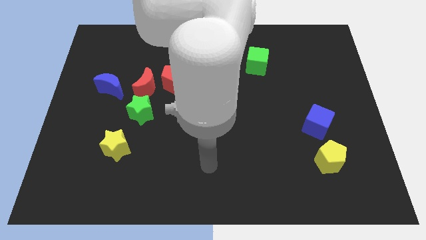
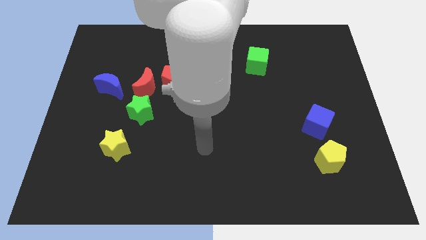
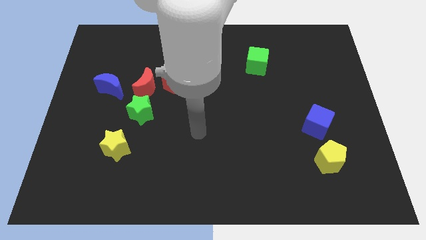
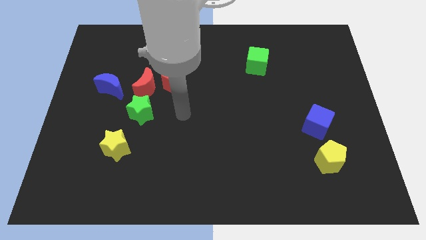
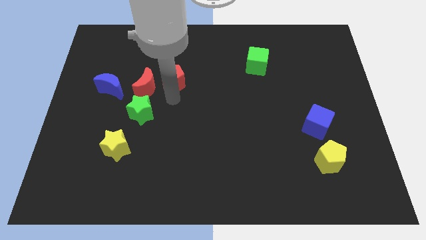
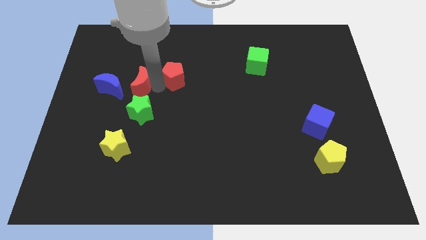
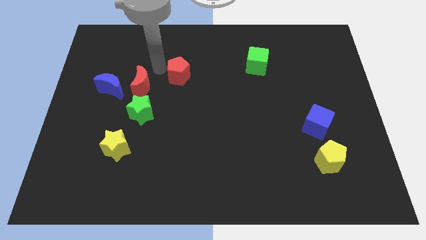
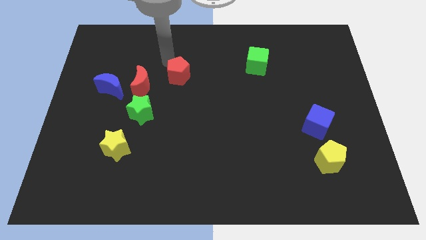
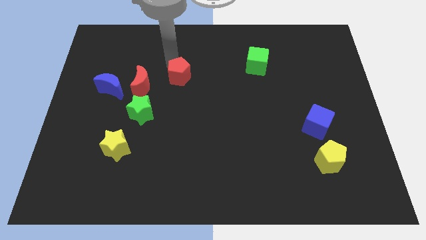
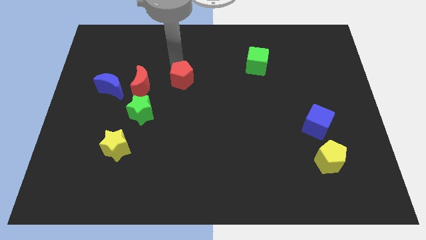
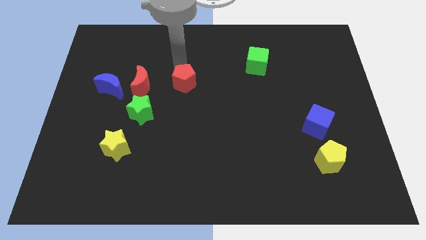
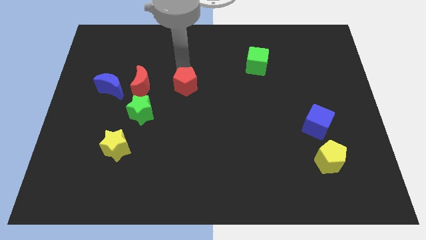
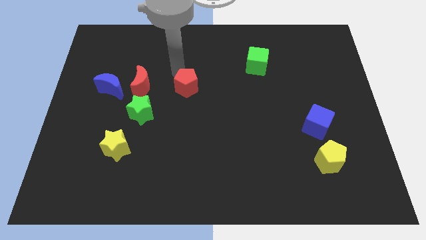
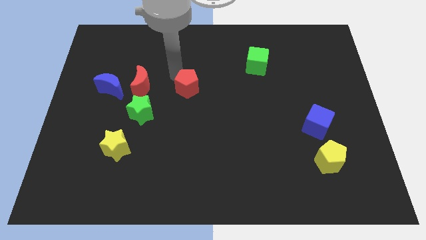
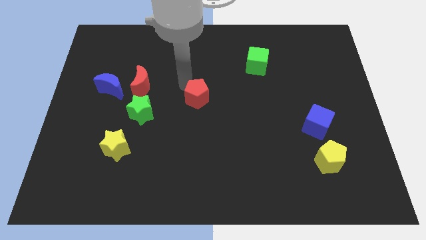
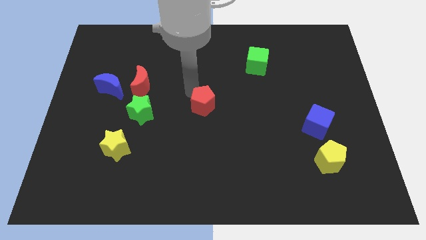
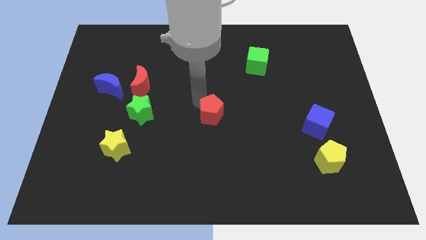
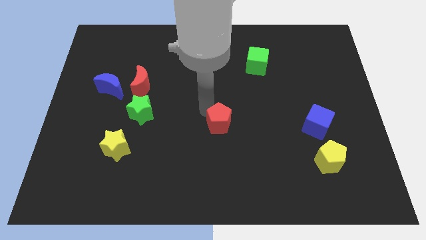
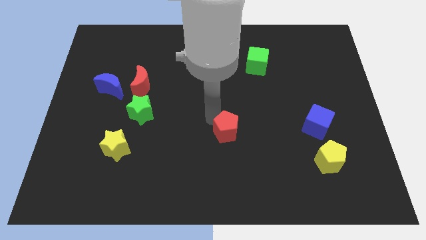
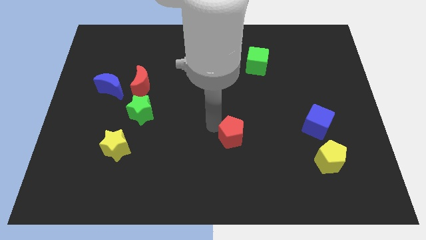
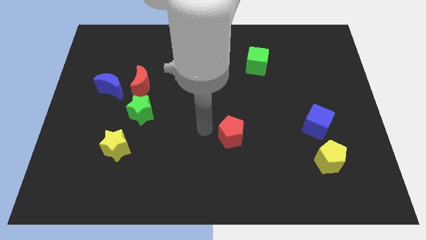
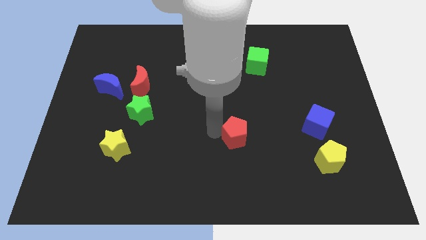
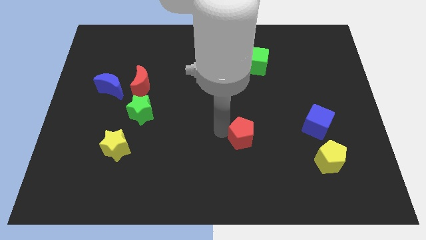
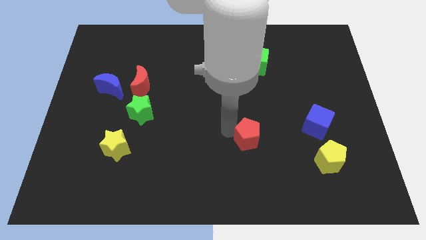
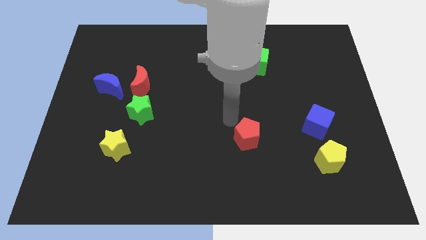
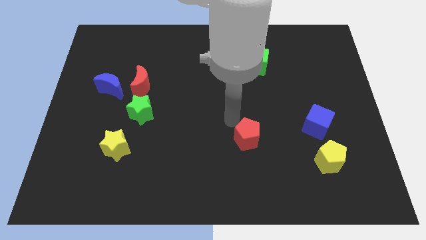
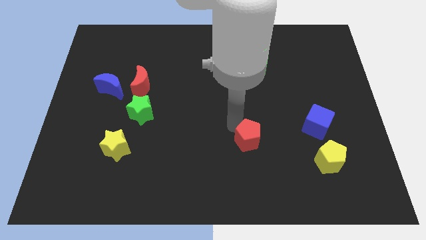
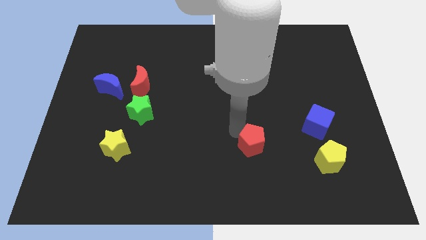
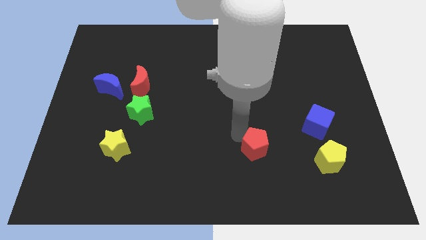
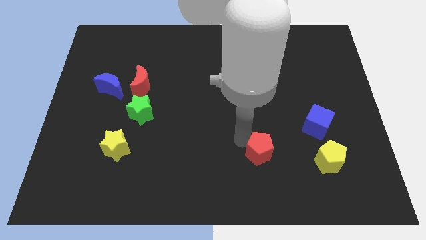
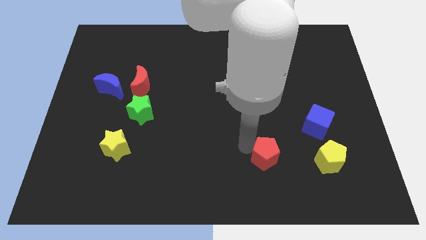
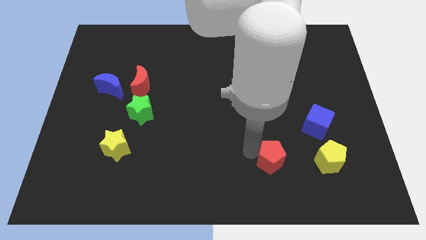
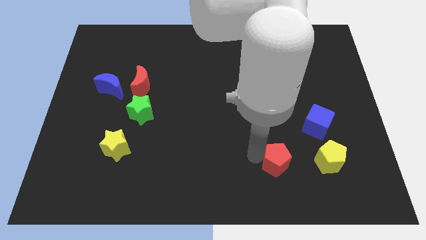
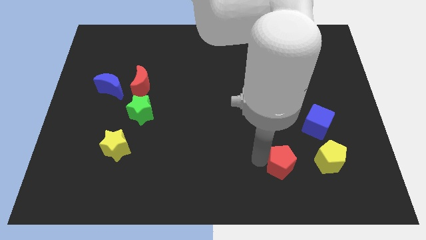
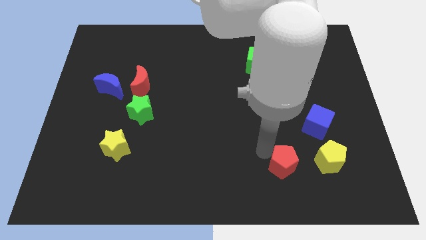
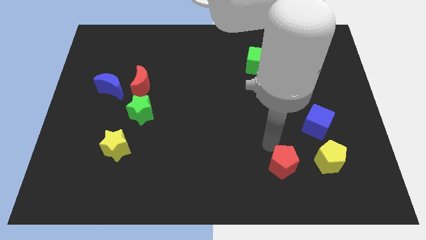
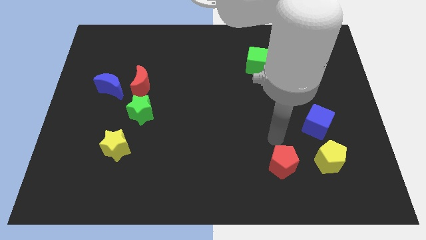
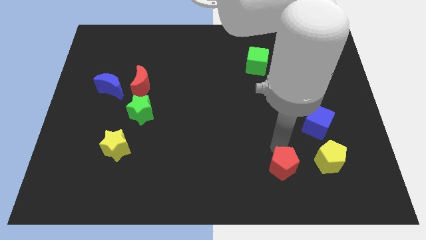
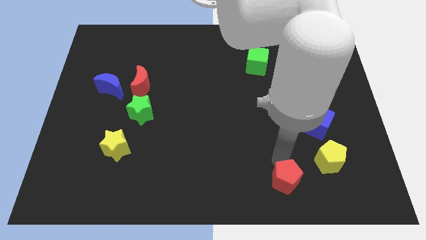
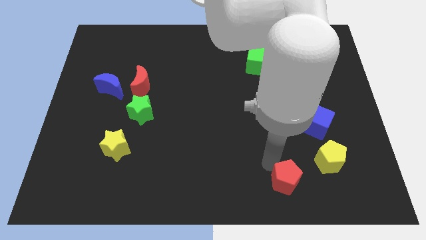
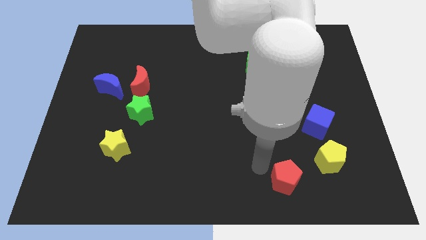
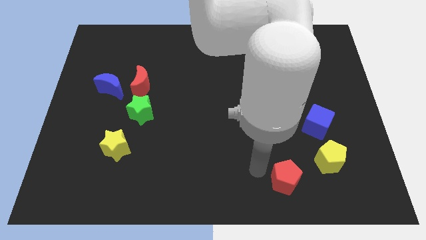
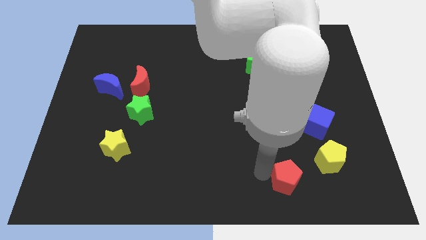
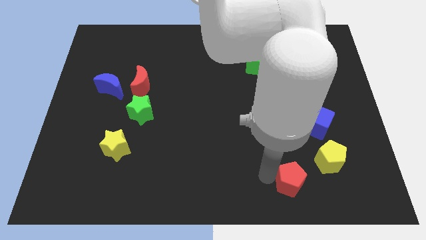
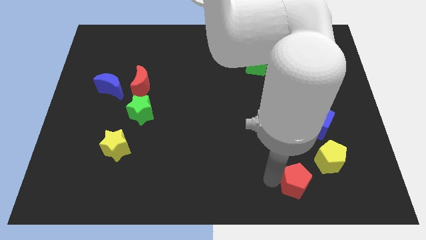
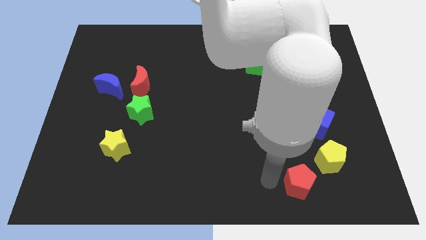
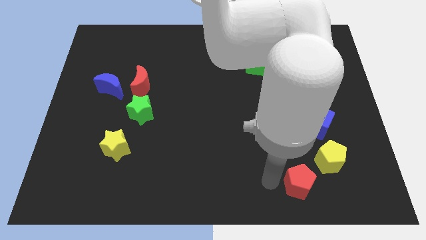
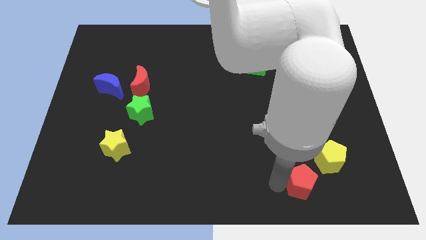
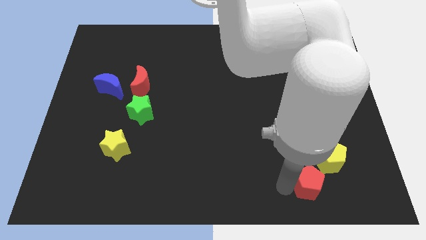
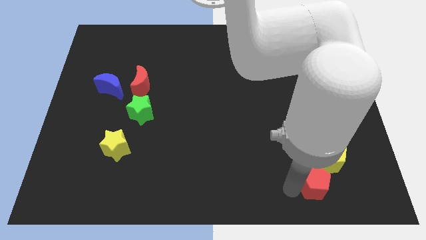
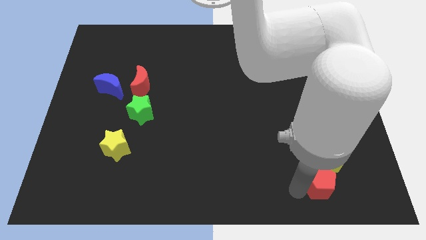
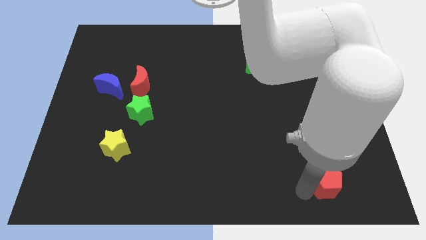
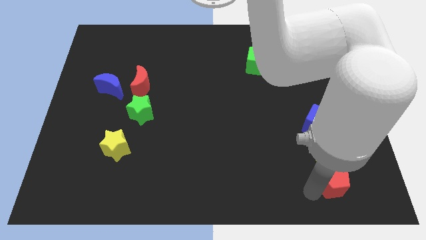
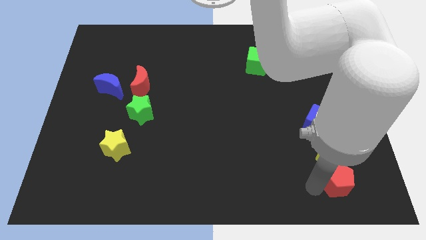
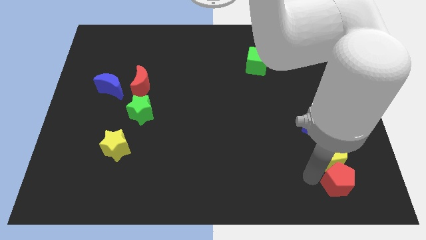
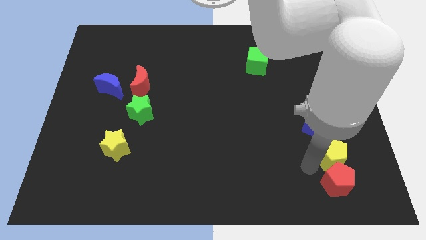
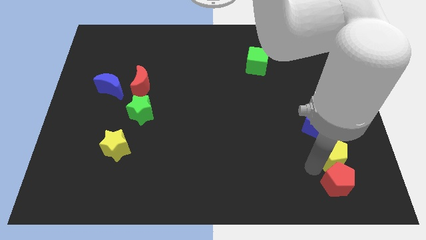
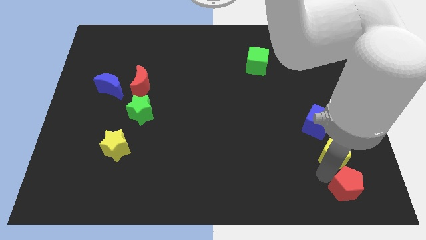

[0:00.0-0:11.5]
put the red pentagon to the lower right corner

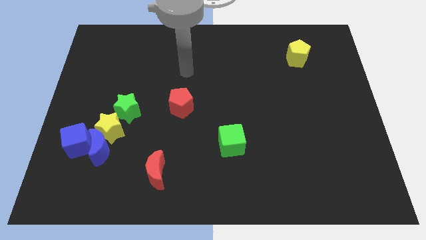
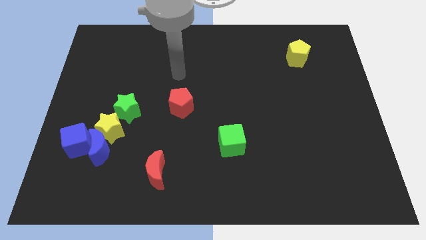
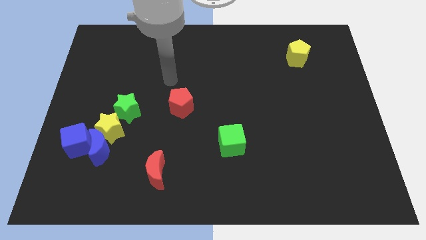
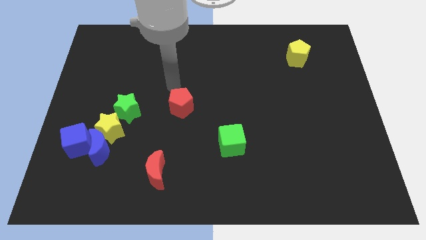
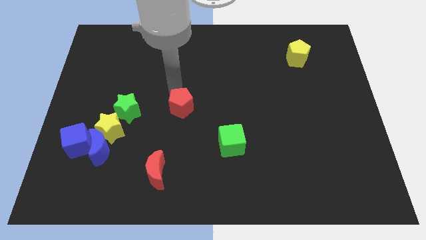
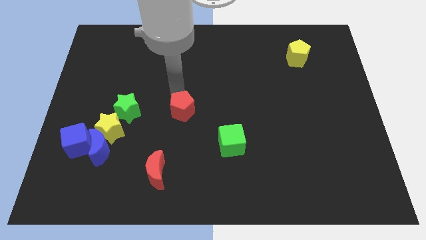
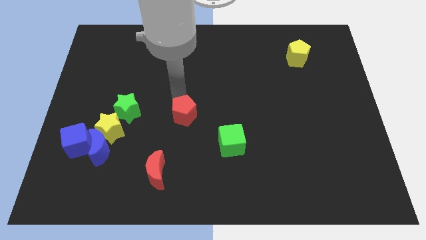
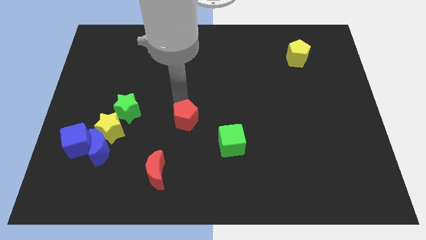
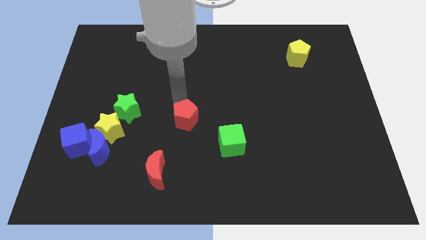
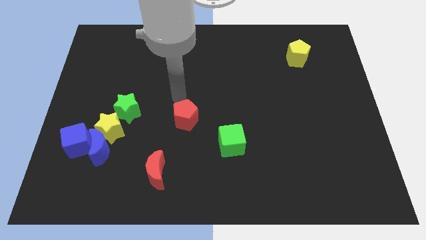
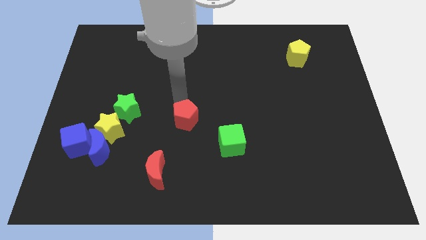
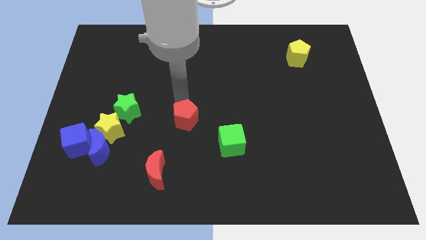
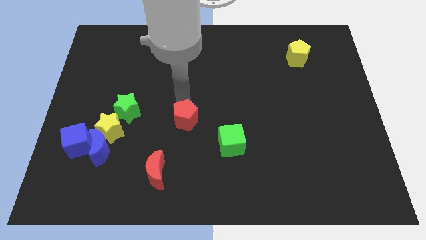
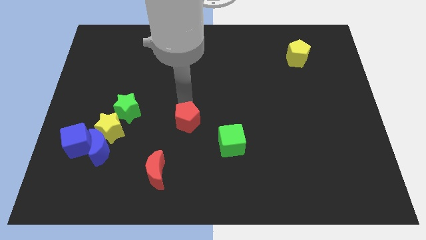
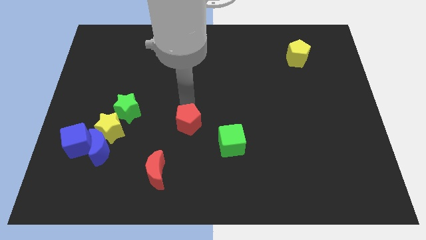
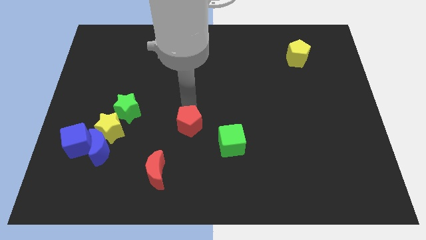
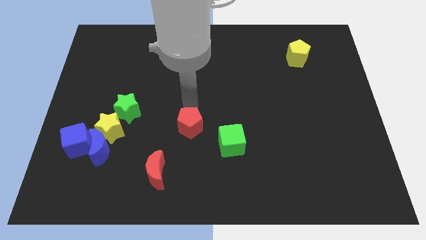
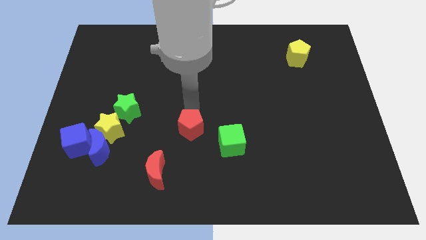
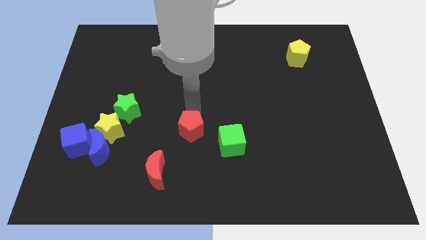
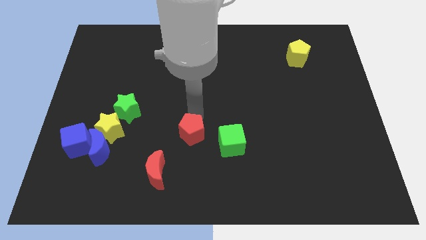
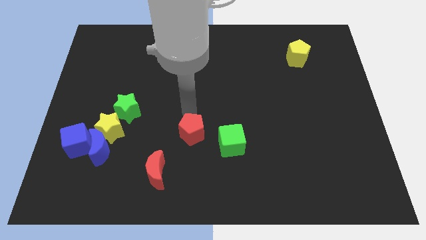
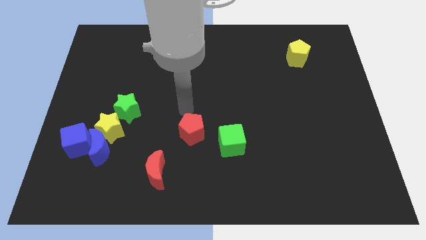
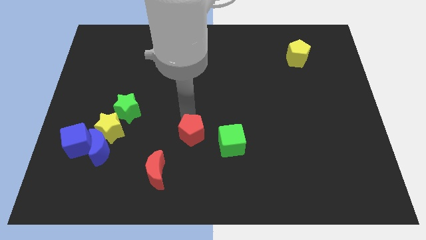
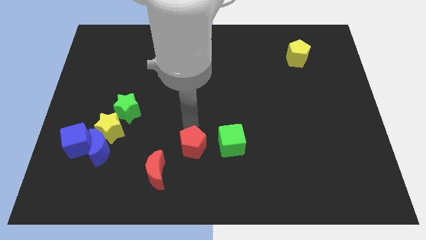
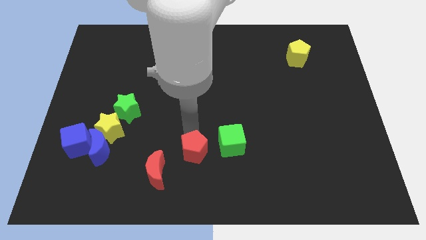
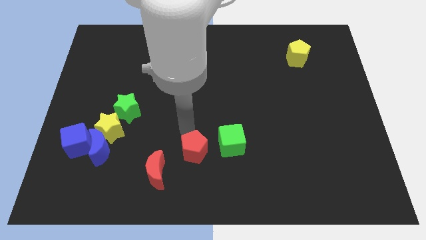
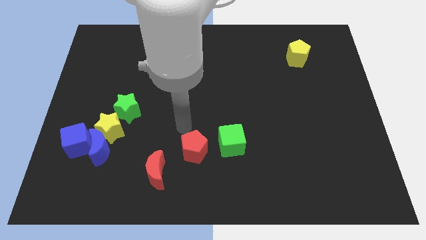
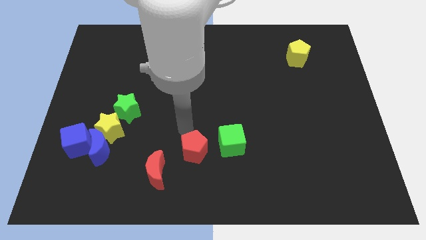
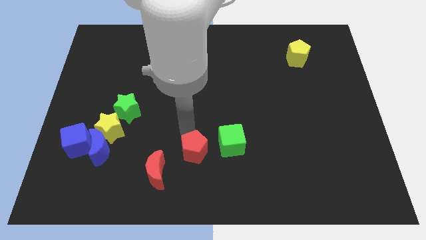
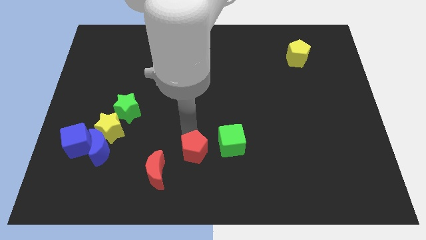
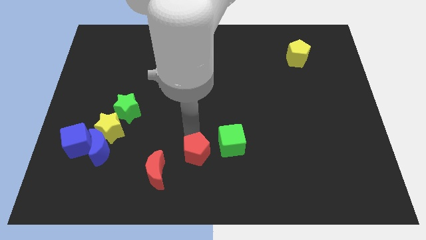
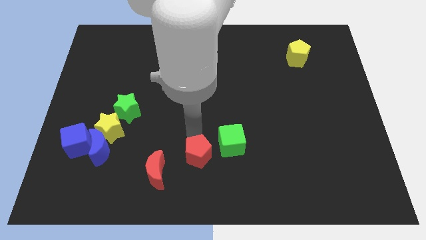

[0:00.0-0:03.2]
move the red pentagon to the bottom side
